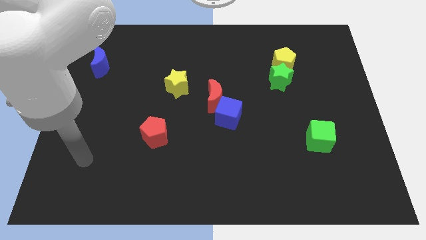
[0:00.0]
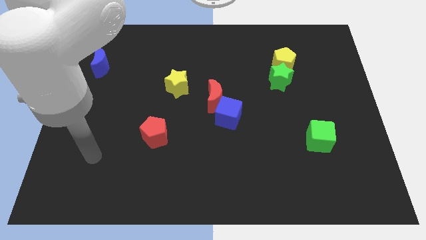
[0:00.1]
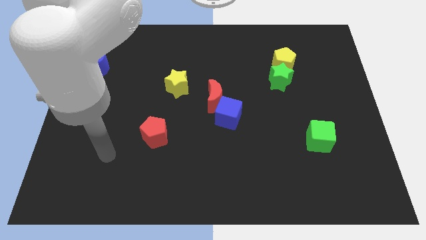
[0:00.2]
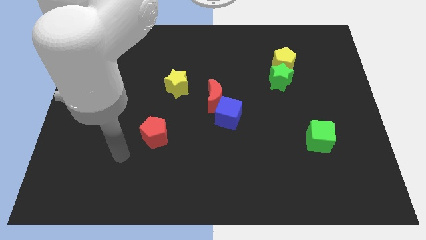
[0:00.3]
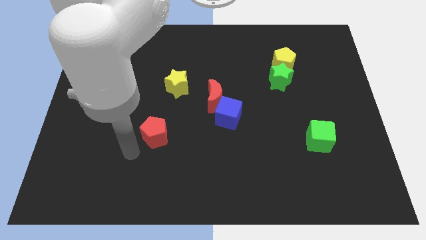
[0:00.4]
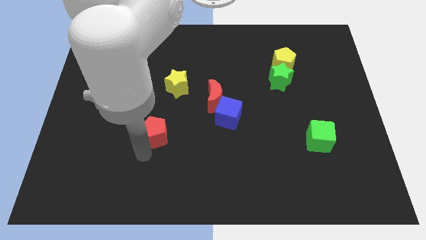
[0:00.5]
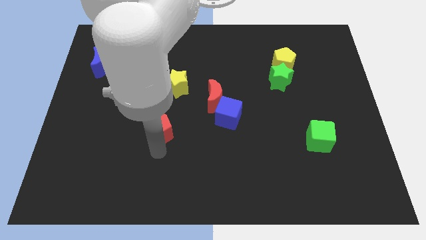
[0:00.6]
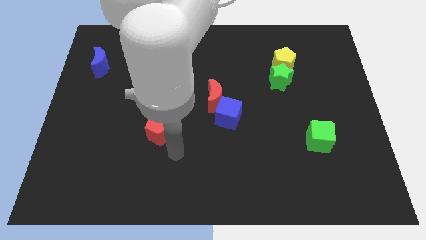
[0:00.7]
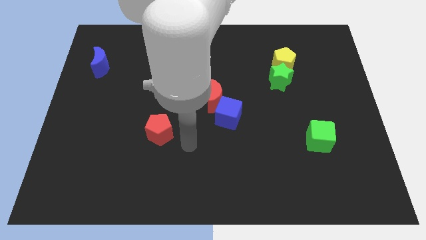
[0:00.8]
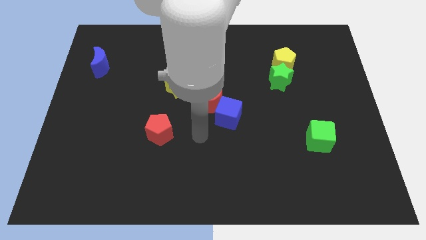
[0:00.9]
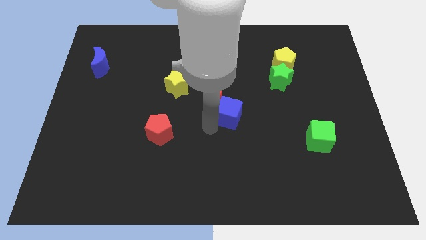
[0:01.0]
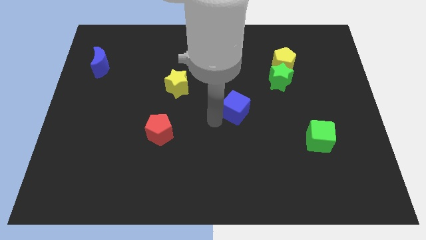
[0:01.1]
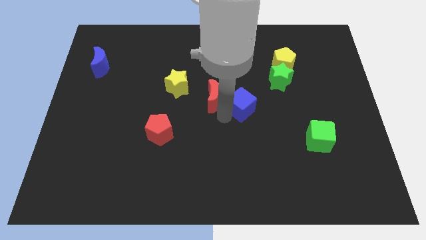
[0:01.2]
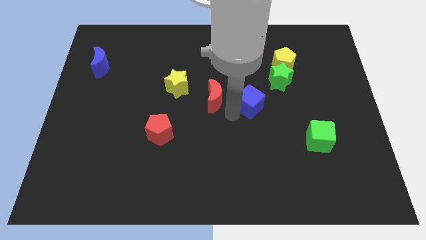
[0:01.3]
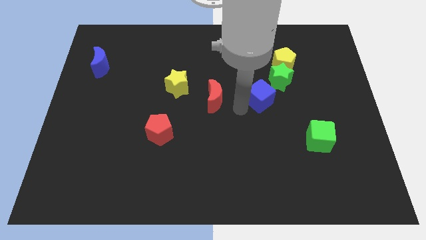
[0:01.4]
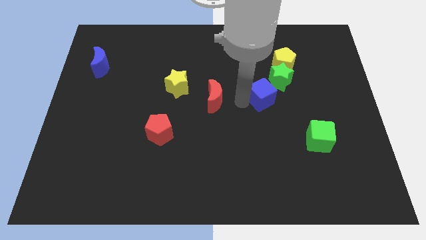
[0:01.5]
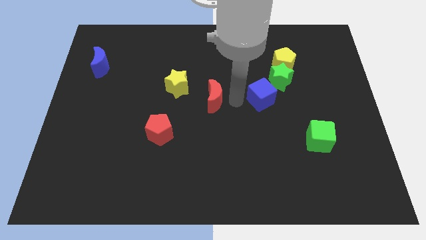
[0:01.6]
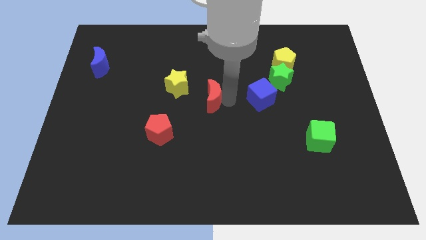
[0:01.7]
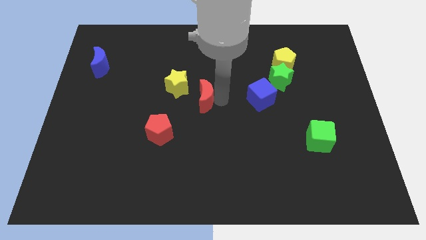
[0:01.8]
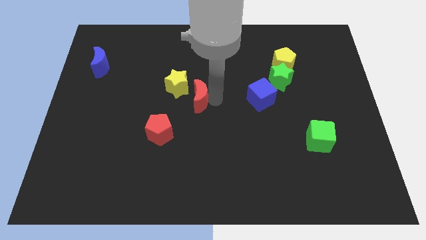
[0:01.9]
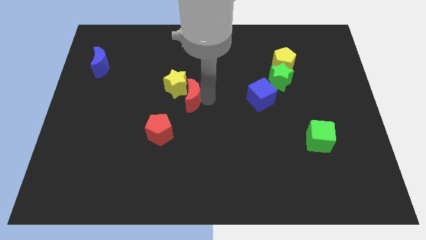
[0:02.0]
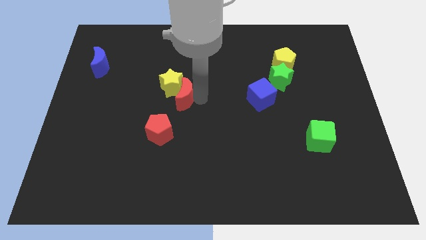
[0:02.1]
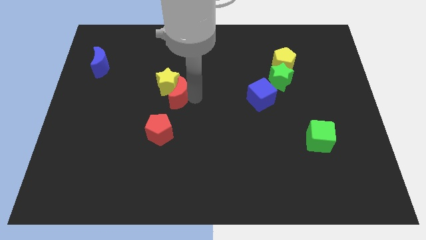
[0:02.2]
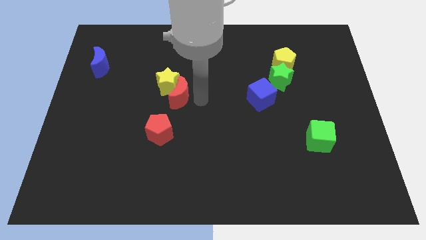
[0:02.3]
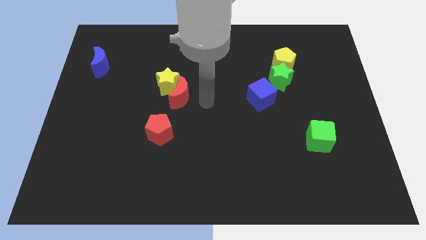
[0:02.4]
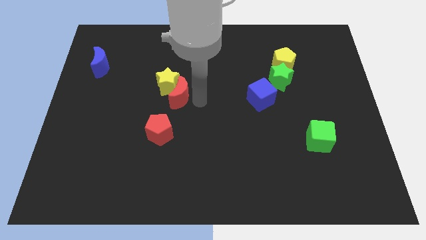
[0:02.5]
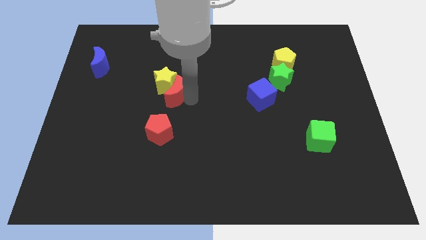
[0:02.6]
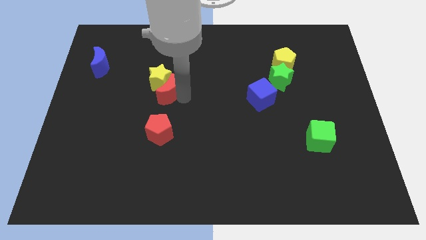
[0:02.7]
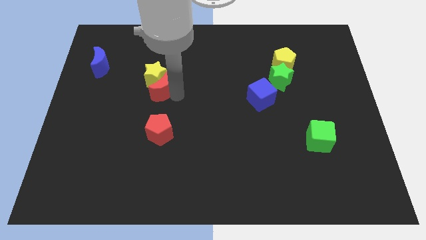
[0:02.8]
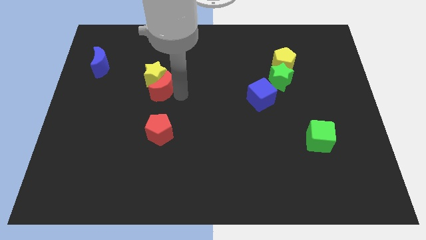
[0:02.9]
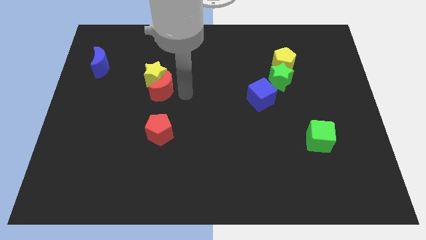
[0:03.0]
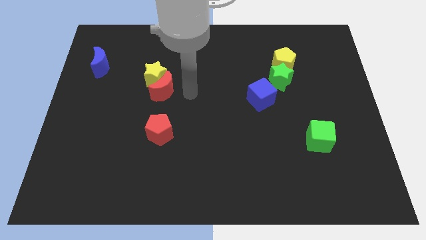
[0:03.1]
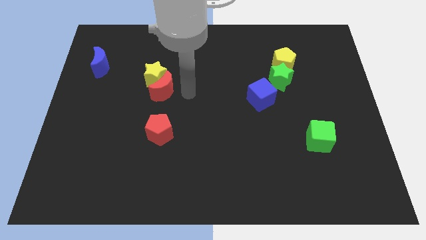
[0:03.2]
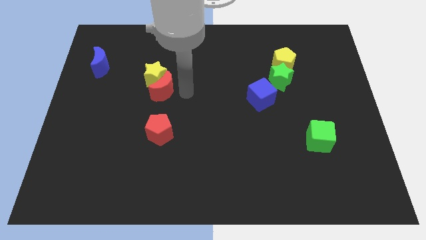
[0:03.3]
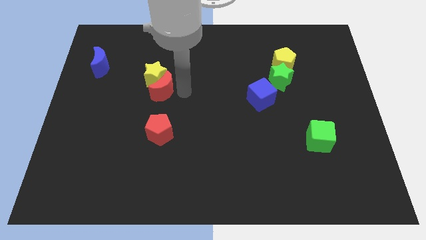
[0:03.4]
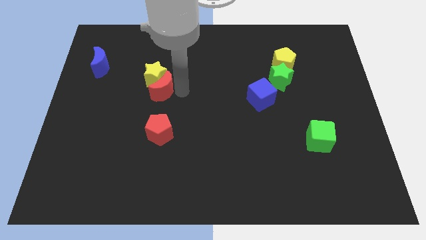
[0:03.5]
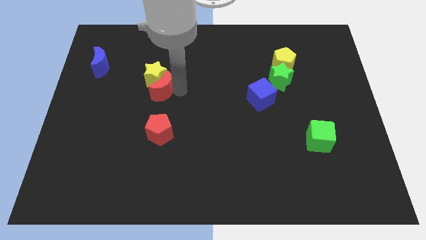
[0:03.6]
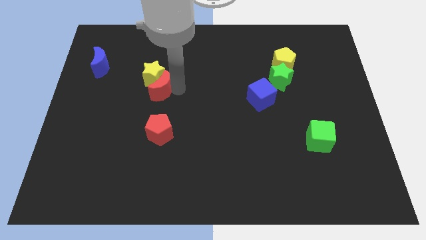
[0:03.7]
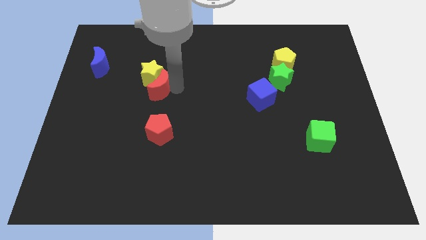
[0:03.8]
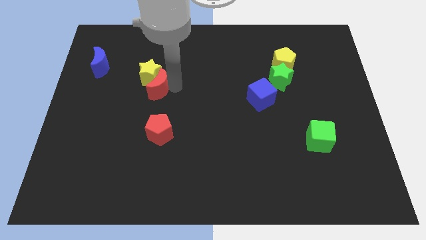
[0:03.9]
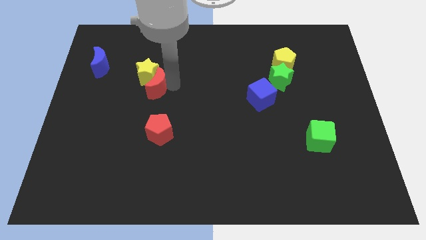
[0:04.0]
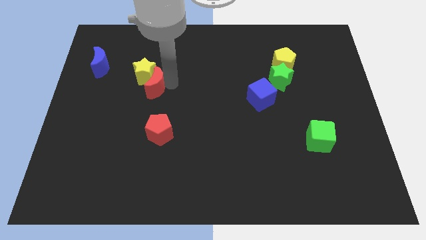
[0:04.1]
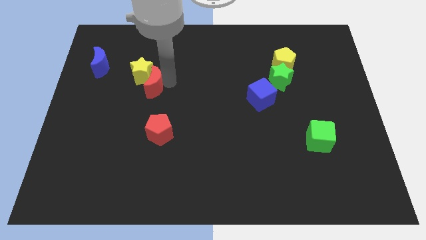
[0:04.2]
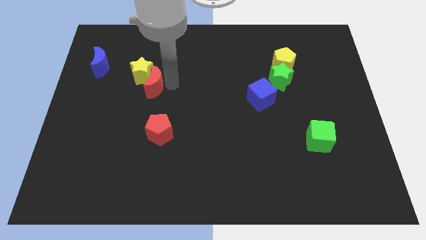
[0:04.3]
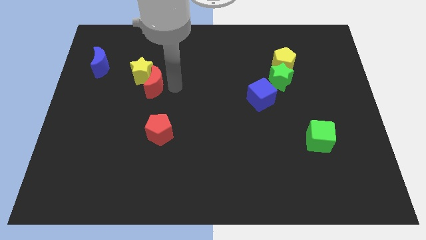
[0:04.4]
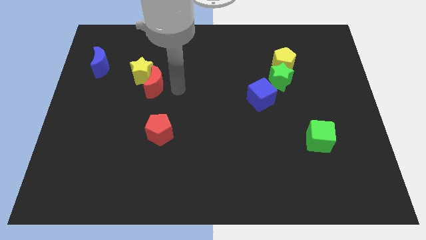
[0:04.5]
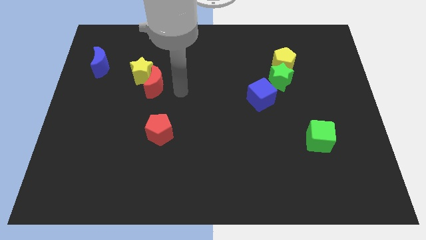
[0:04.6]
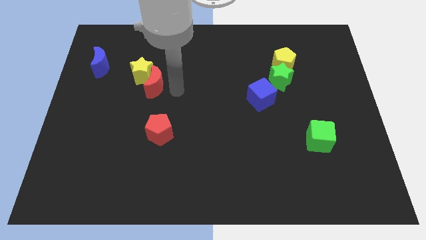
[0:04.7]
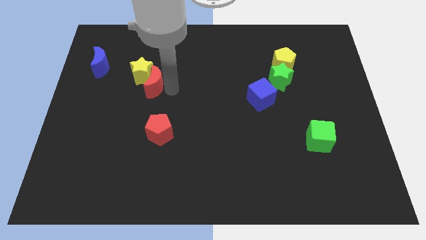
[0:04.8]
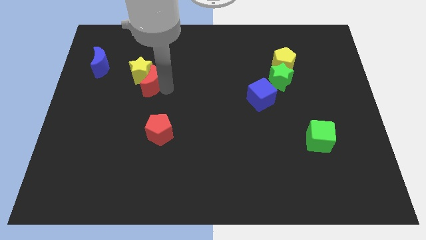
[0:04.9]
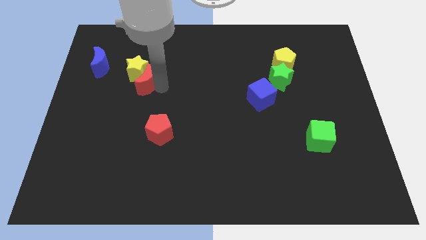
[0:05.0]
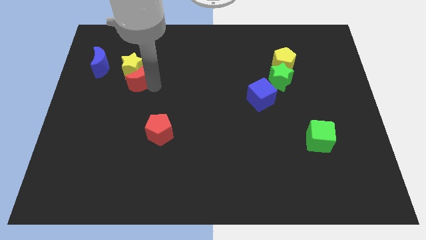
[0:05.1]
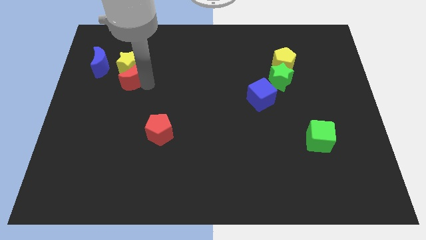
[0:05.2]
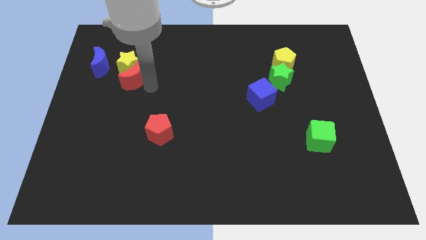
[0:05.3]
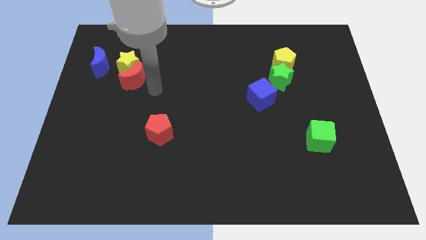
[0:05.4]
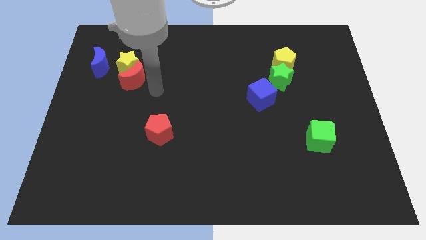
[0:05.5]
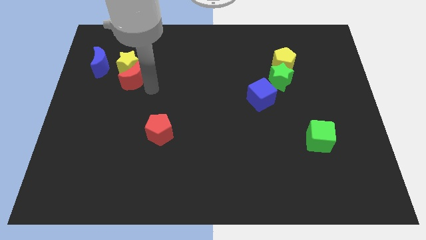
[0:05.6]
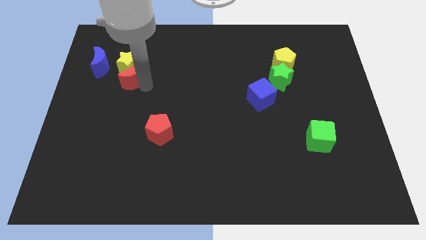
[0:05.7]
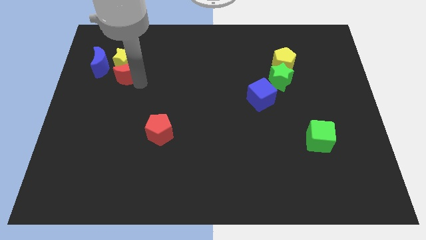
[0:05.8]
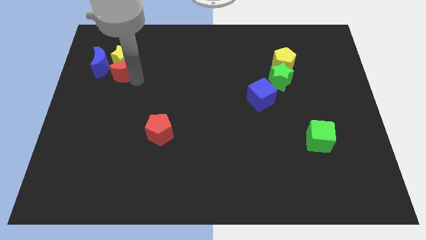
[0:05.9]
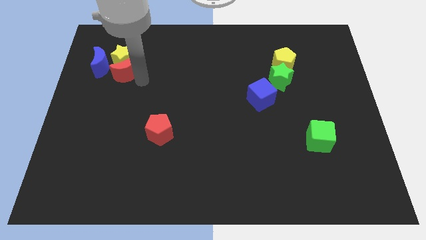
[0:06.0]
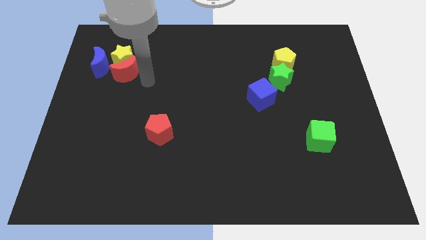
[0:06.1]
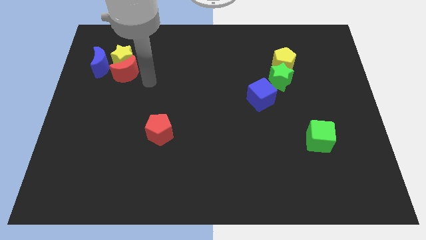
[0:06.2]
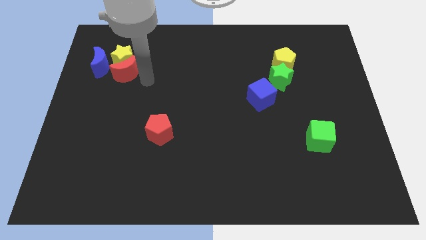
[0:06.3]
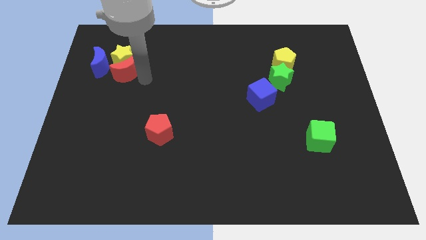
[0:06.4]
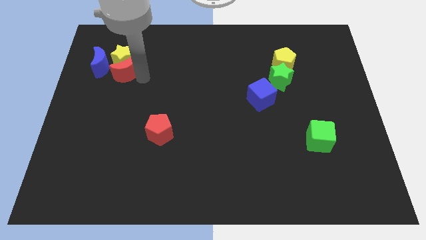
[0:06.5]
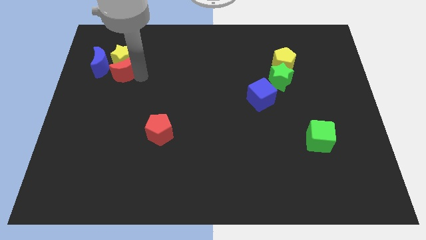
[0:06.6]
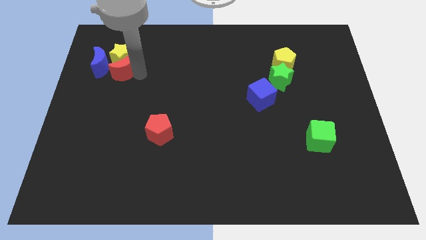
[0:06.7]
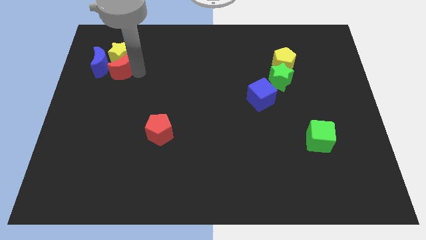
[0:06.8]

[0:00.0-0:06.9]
move the red moon next to the blue moon
